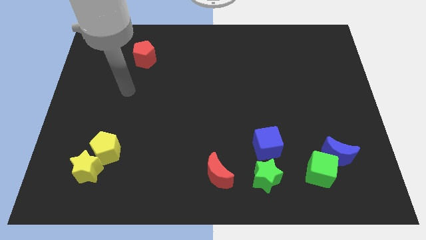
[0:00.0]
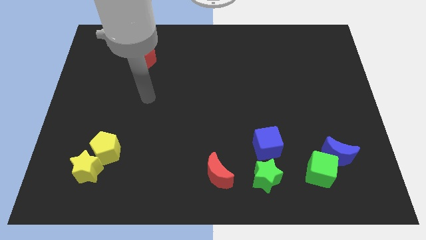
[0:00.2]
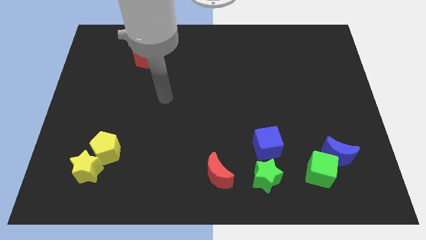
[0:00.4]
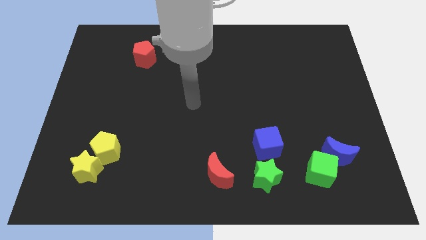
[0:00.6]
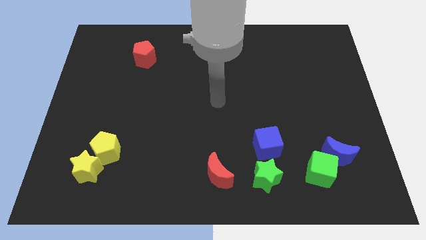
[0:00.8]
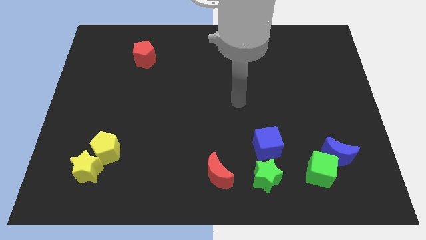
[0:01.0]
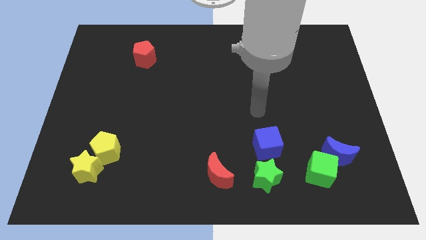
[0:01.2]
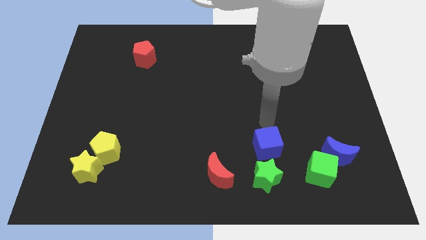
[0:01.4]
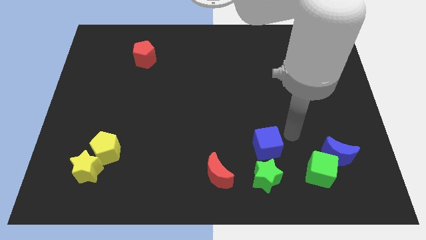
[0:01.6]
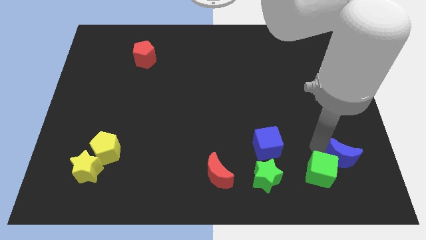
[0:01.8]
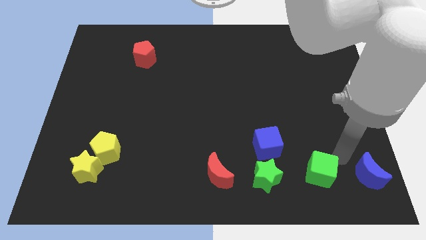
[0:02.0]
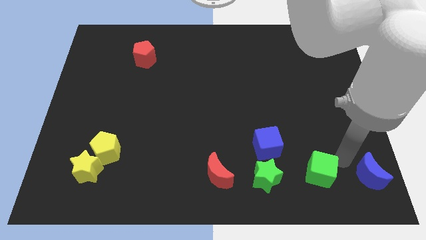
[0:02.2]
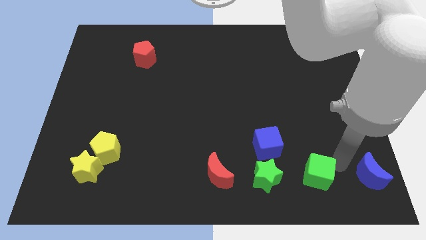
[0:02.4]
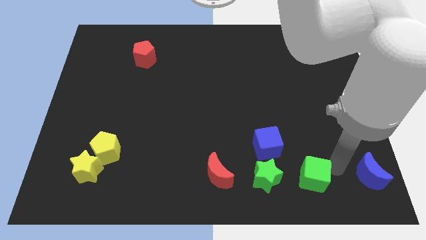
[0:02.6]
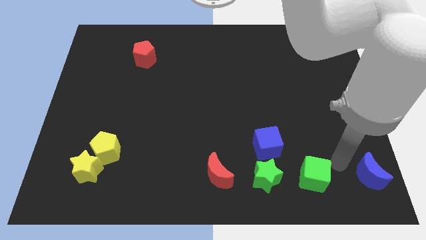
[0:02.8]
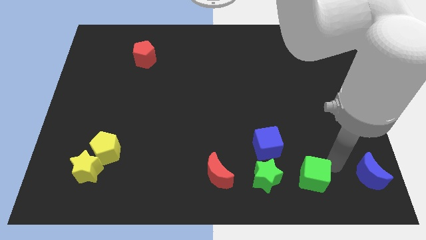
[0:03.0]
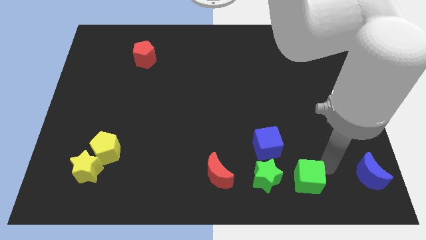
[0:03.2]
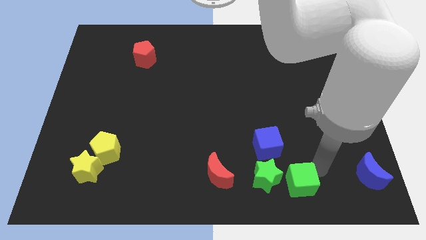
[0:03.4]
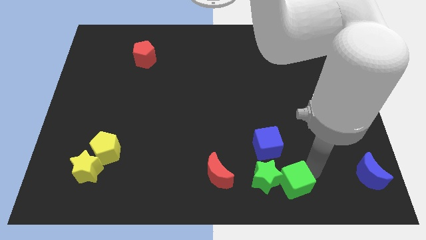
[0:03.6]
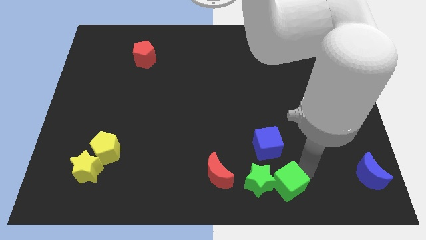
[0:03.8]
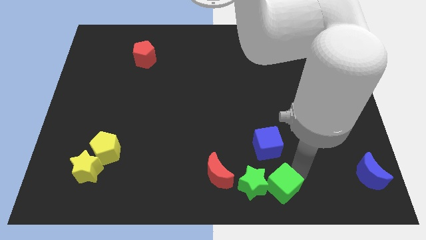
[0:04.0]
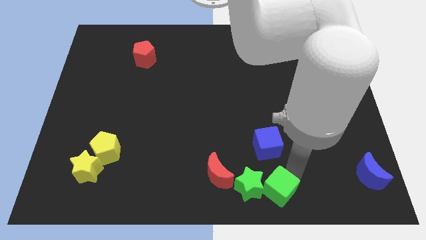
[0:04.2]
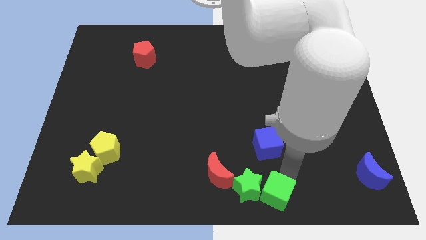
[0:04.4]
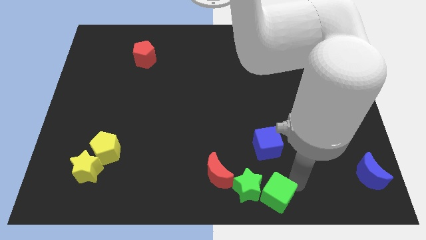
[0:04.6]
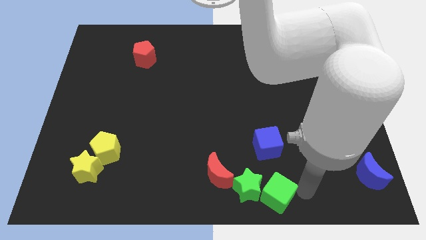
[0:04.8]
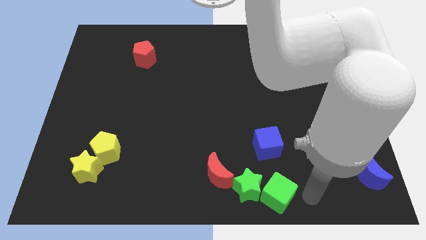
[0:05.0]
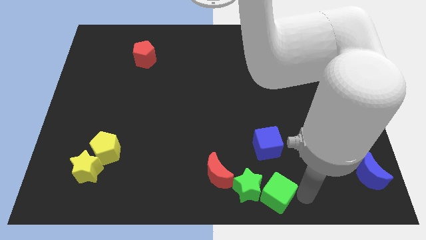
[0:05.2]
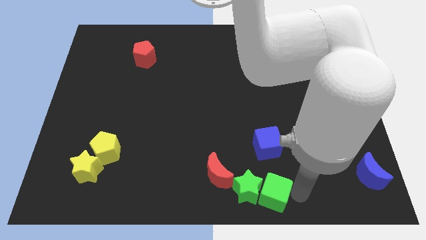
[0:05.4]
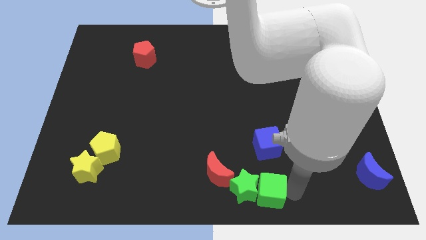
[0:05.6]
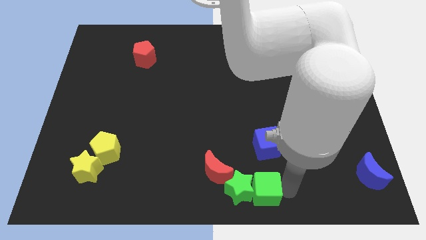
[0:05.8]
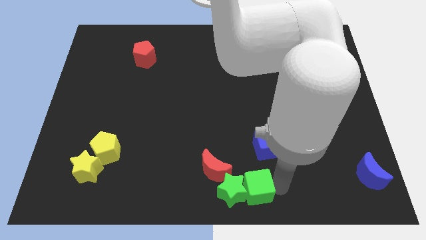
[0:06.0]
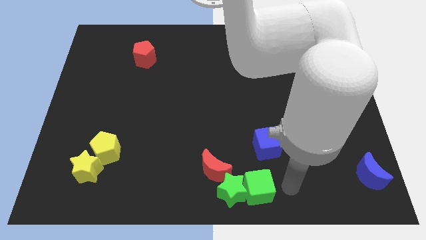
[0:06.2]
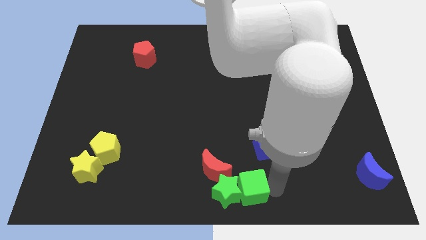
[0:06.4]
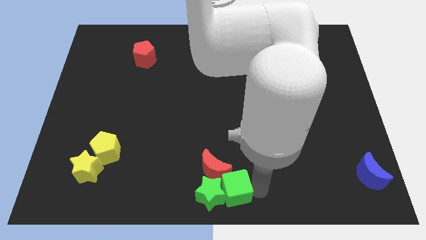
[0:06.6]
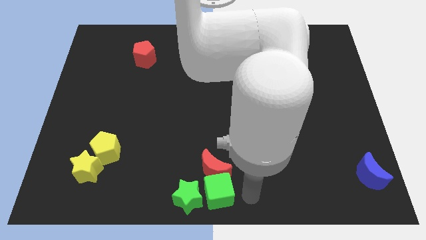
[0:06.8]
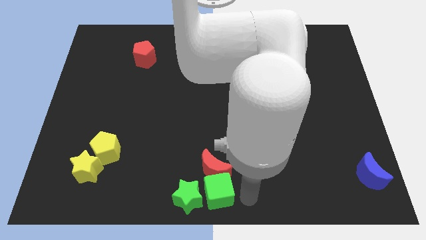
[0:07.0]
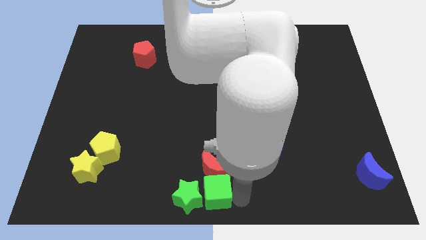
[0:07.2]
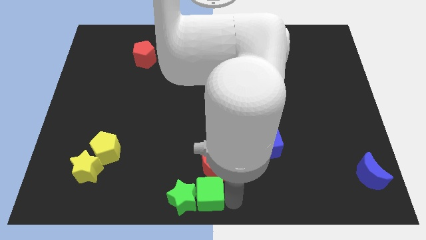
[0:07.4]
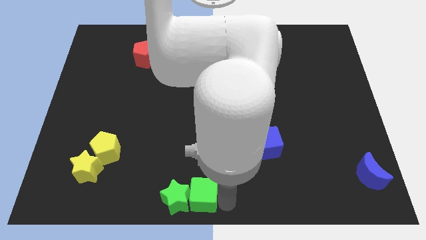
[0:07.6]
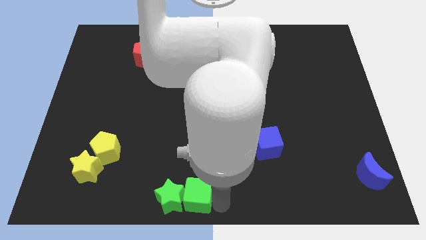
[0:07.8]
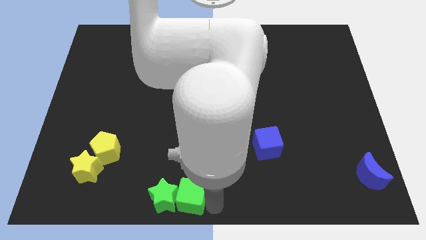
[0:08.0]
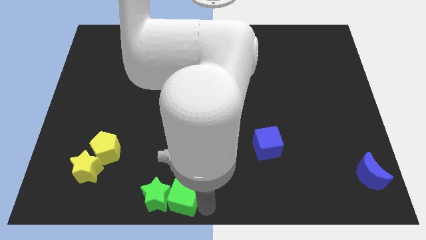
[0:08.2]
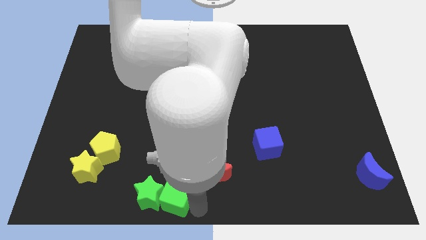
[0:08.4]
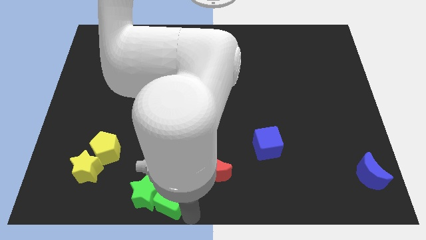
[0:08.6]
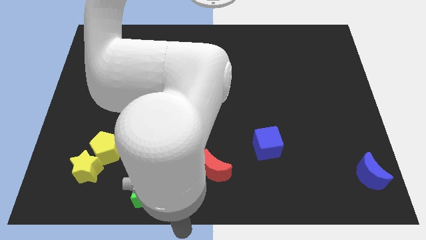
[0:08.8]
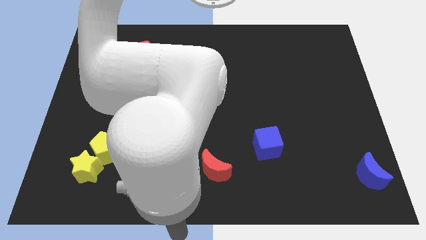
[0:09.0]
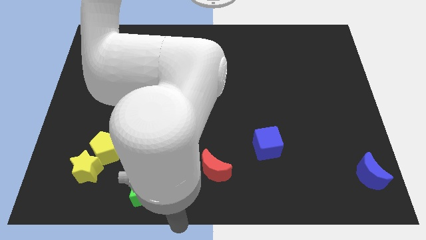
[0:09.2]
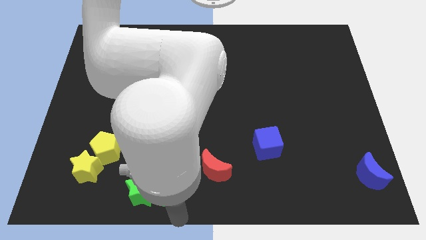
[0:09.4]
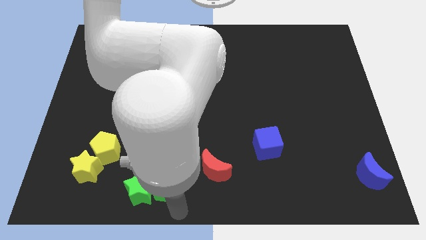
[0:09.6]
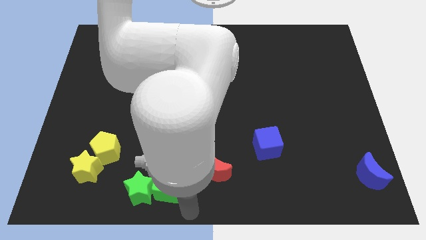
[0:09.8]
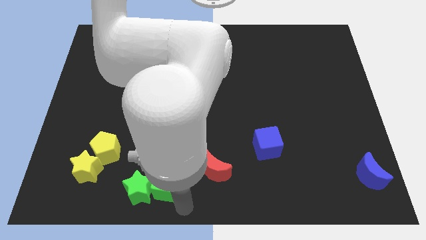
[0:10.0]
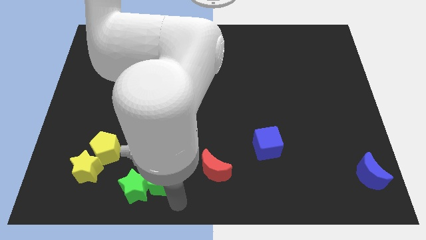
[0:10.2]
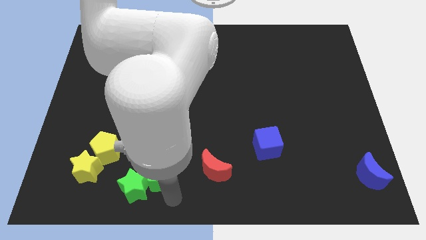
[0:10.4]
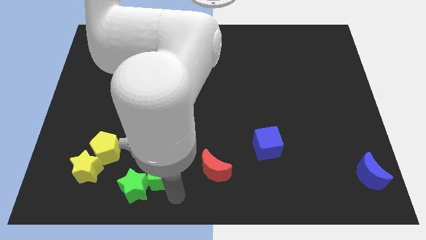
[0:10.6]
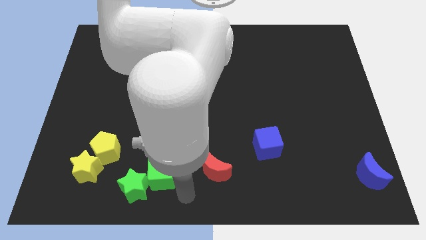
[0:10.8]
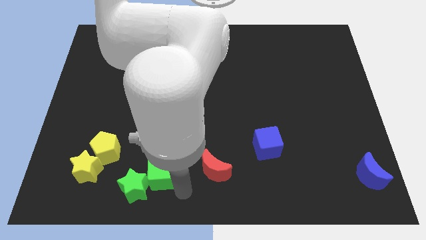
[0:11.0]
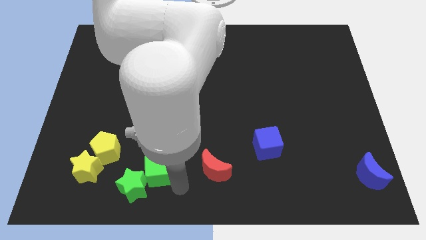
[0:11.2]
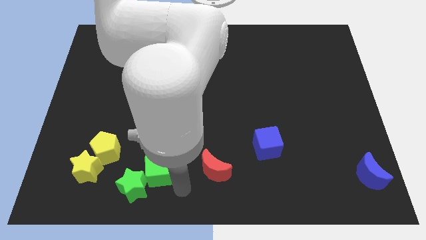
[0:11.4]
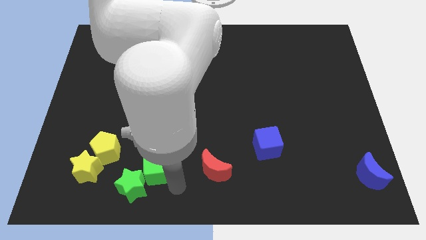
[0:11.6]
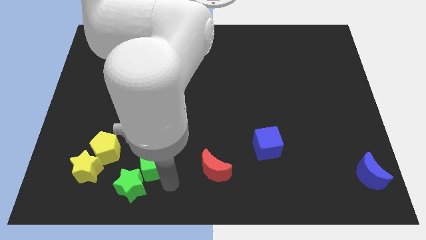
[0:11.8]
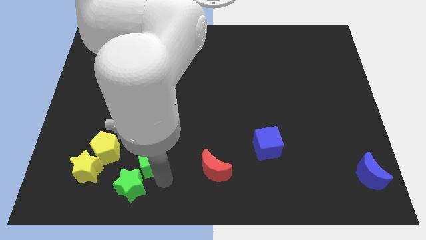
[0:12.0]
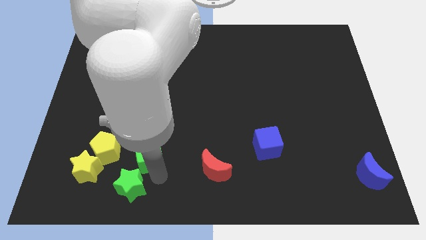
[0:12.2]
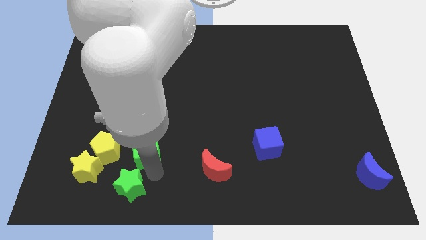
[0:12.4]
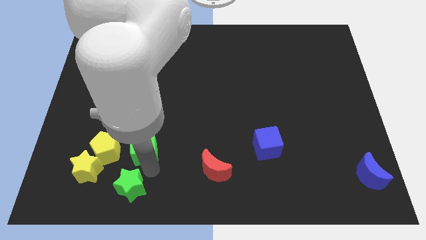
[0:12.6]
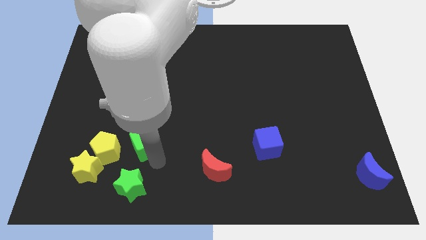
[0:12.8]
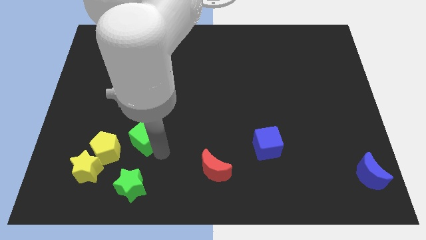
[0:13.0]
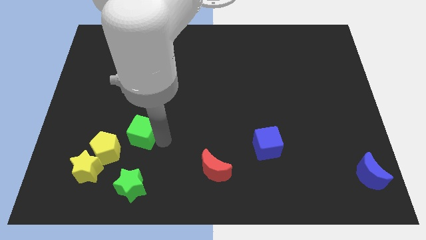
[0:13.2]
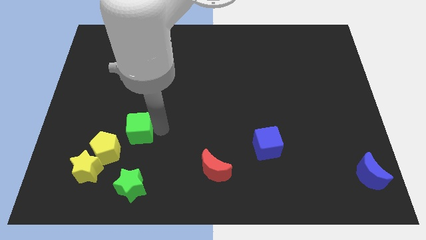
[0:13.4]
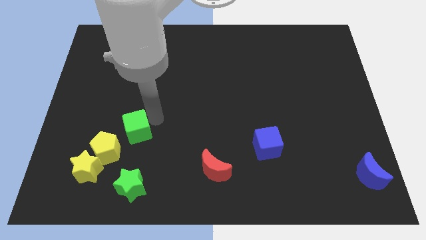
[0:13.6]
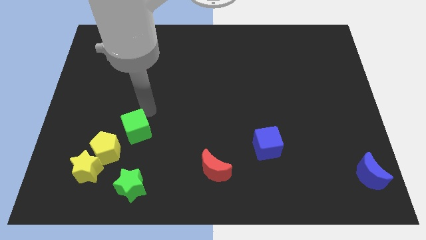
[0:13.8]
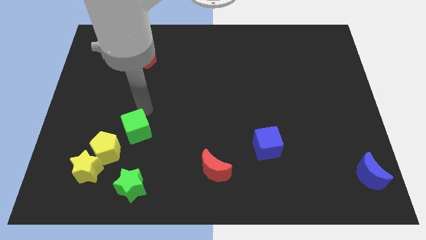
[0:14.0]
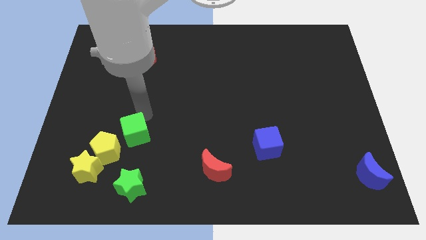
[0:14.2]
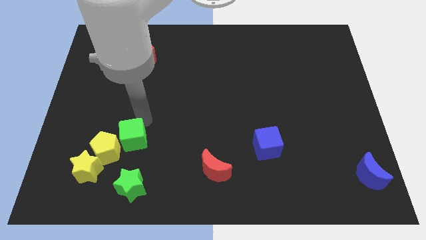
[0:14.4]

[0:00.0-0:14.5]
slide the green cube towards the yellow pentagon
